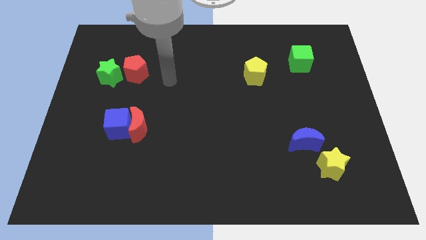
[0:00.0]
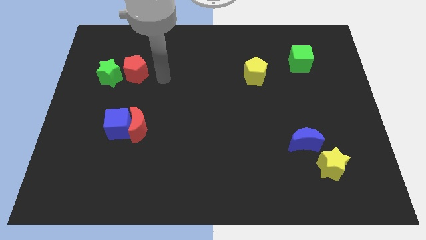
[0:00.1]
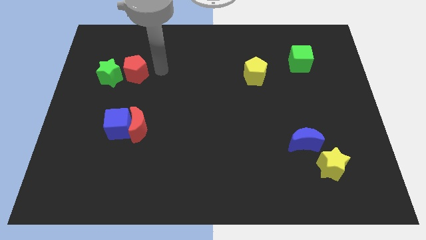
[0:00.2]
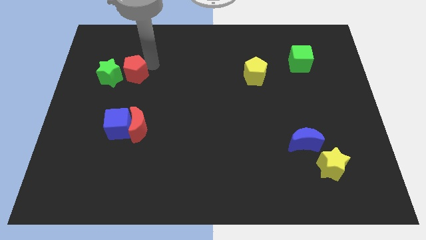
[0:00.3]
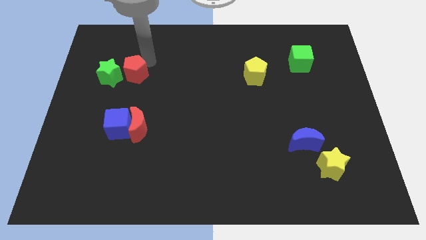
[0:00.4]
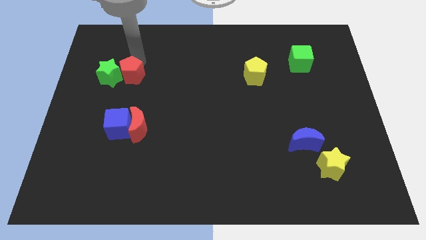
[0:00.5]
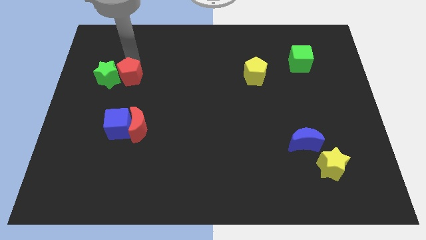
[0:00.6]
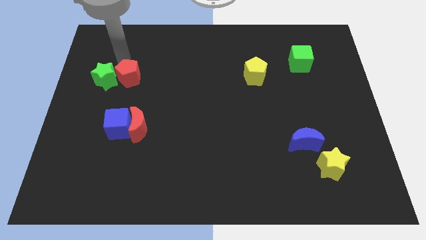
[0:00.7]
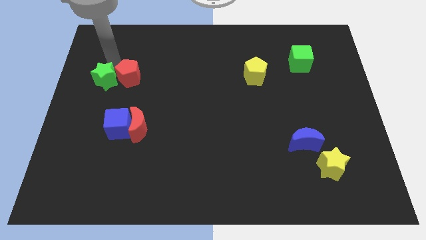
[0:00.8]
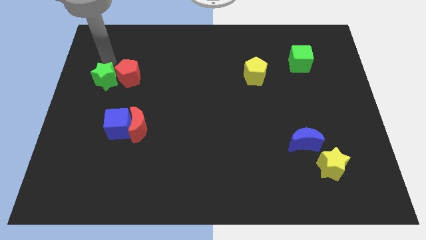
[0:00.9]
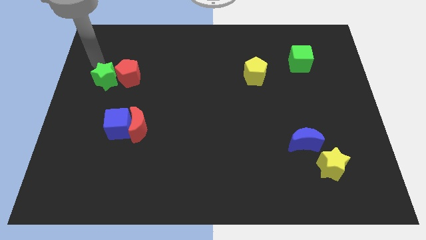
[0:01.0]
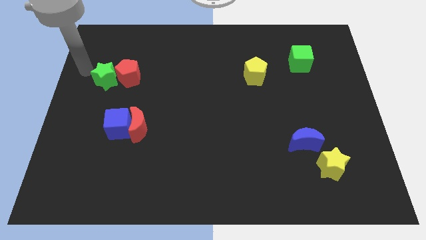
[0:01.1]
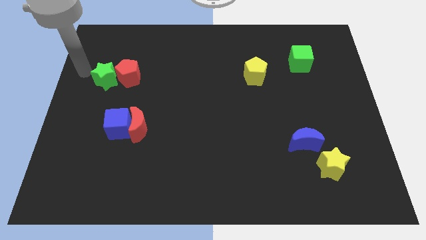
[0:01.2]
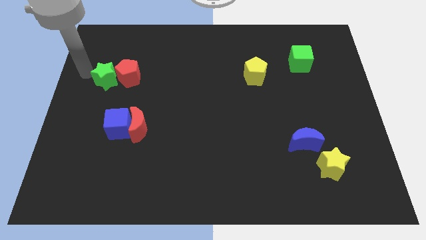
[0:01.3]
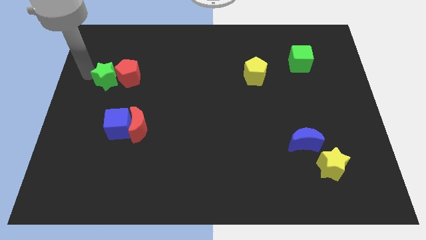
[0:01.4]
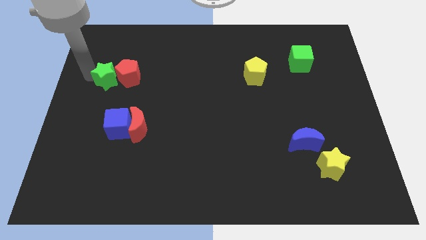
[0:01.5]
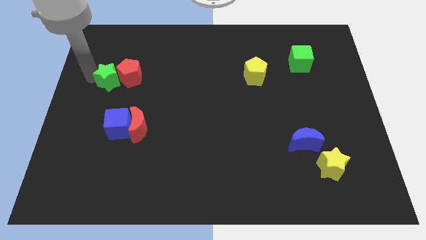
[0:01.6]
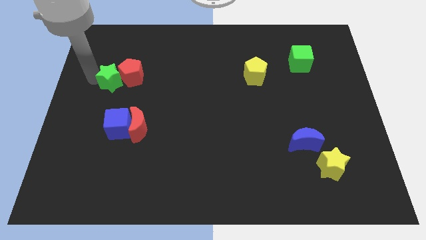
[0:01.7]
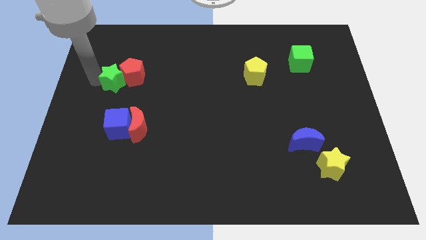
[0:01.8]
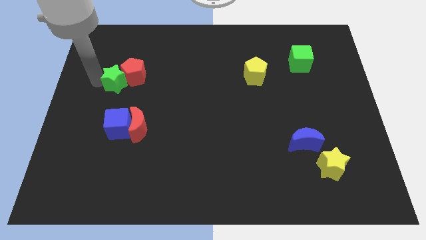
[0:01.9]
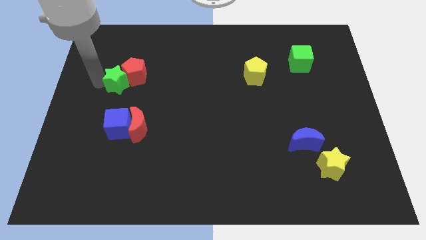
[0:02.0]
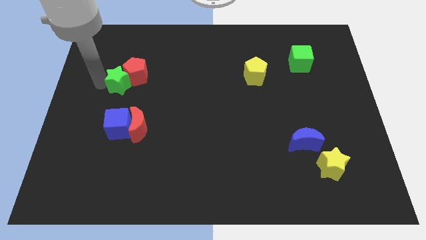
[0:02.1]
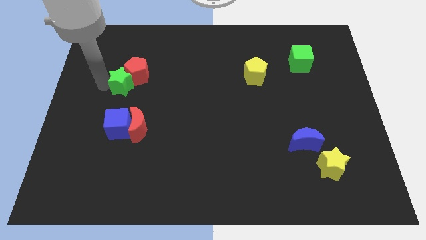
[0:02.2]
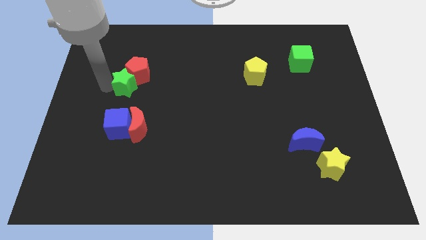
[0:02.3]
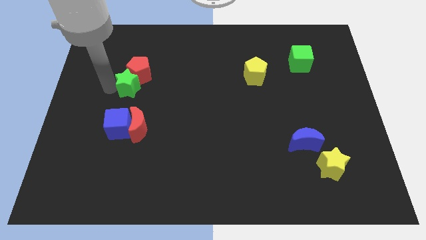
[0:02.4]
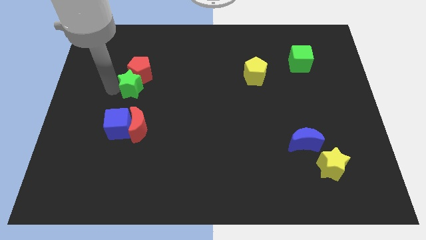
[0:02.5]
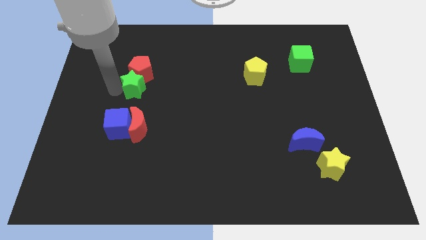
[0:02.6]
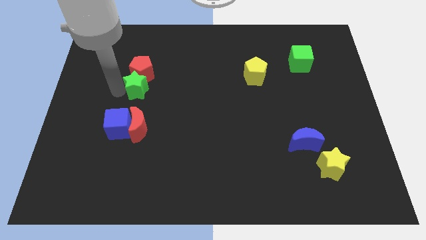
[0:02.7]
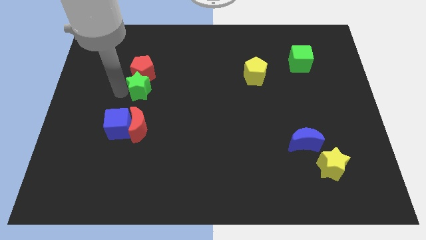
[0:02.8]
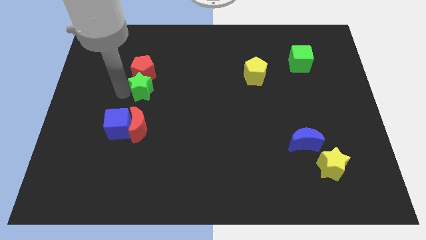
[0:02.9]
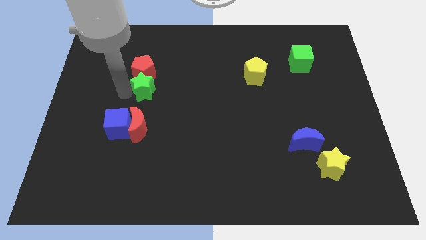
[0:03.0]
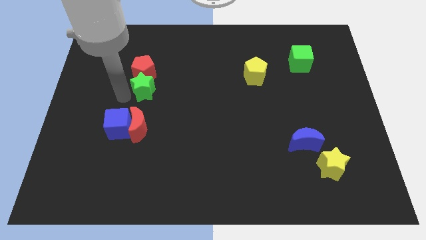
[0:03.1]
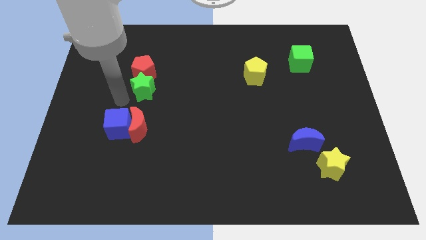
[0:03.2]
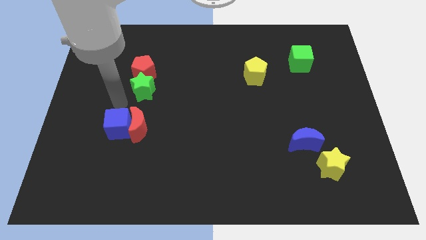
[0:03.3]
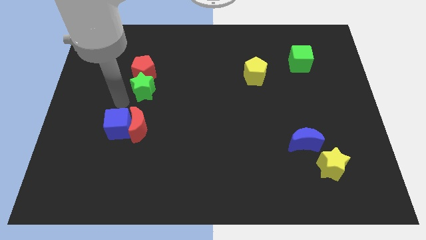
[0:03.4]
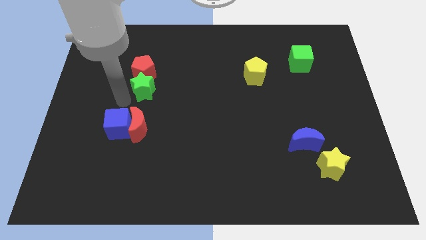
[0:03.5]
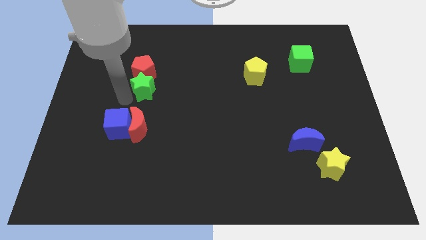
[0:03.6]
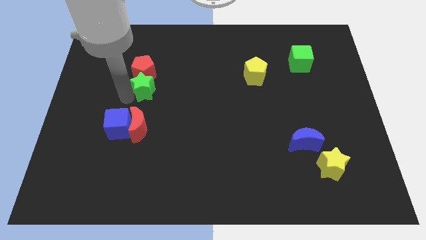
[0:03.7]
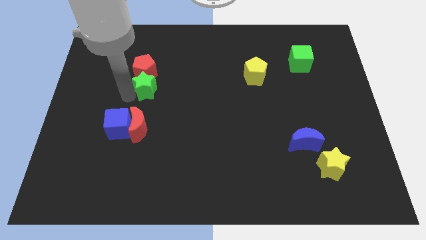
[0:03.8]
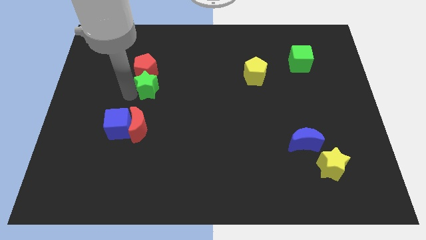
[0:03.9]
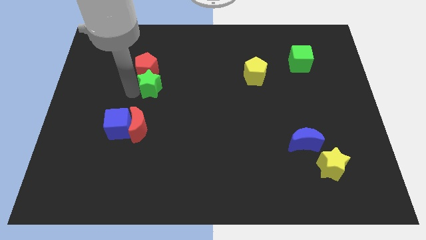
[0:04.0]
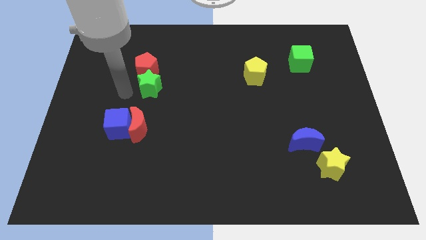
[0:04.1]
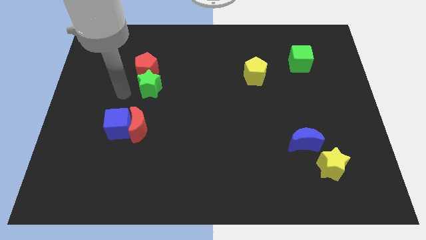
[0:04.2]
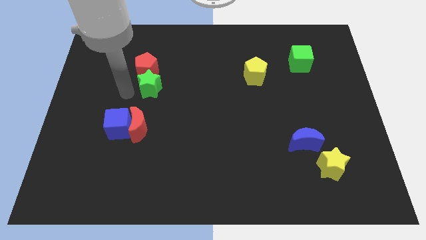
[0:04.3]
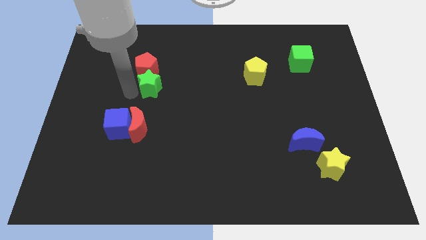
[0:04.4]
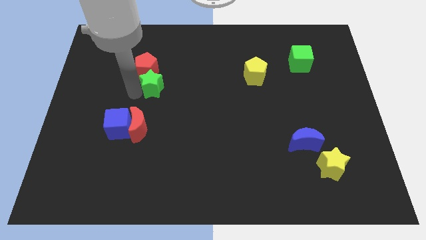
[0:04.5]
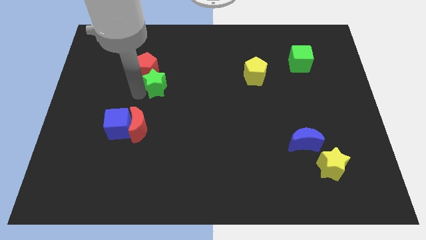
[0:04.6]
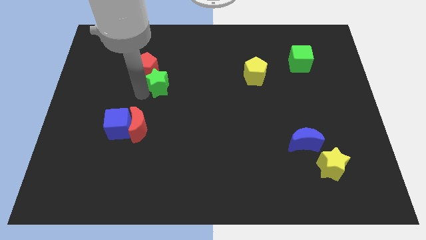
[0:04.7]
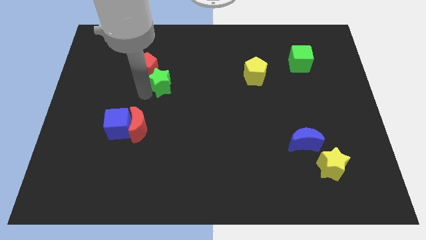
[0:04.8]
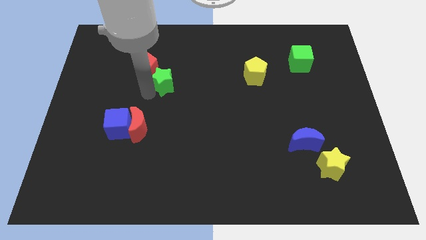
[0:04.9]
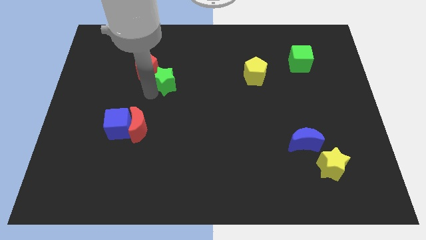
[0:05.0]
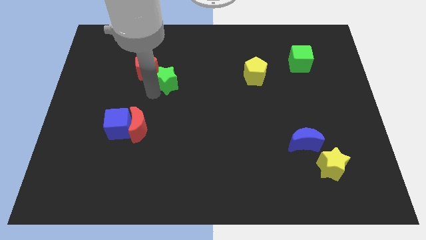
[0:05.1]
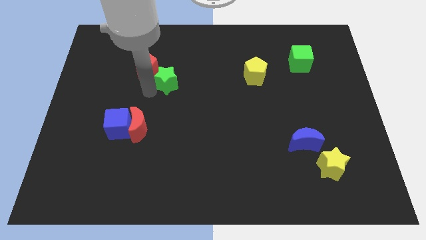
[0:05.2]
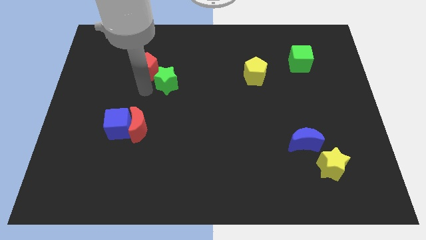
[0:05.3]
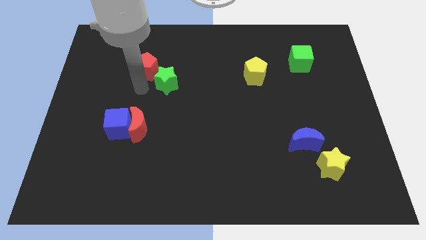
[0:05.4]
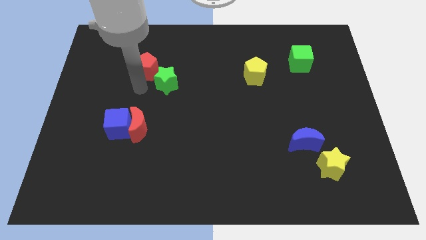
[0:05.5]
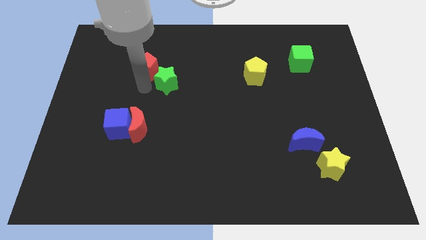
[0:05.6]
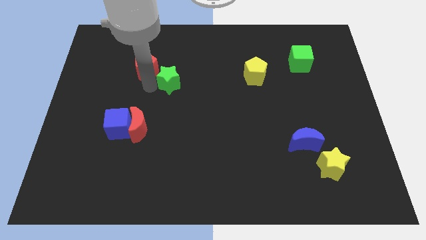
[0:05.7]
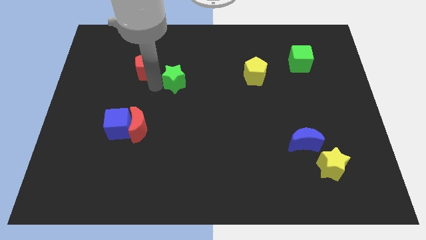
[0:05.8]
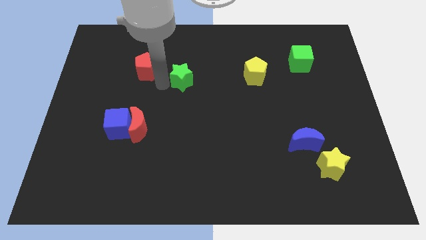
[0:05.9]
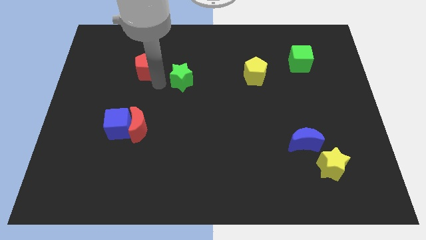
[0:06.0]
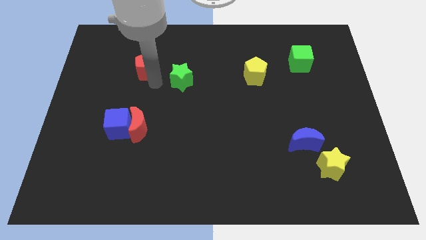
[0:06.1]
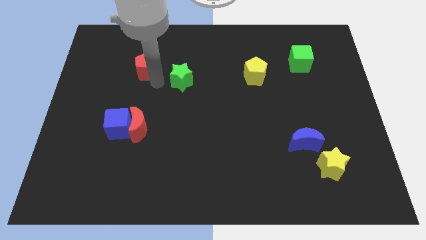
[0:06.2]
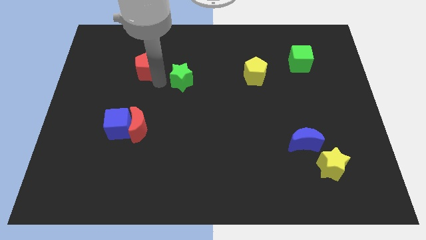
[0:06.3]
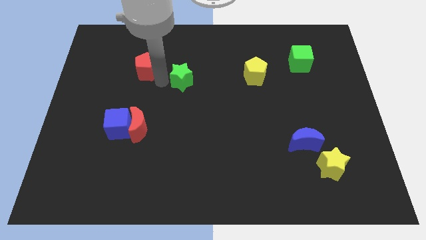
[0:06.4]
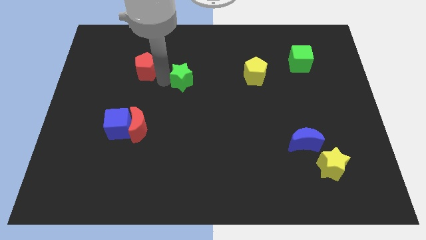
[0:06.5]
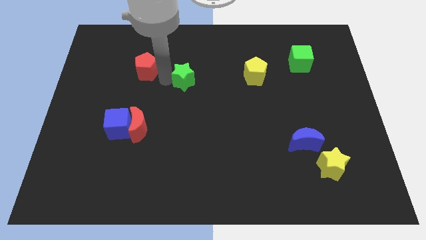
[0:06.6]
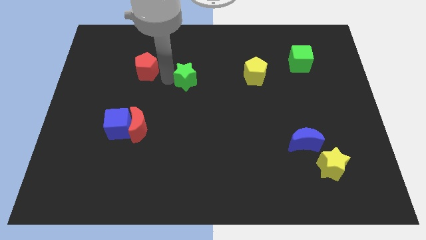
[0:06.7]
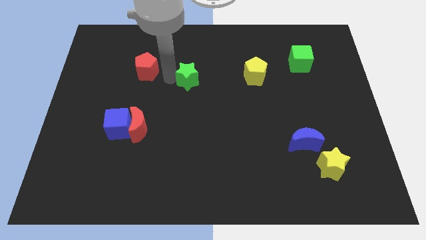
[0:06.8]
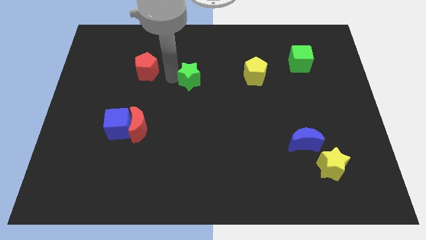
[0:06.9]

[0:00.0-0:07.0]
push the green star to the right

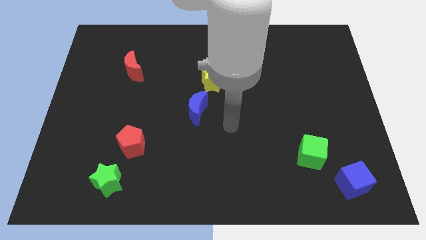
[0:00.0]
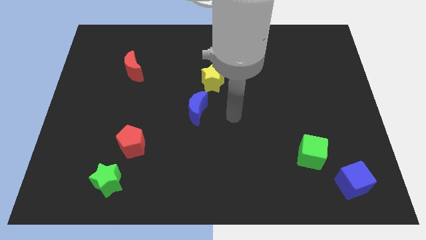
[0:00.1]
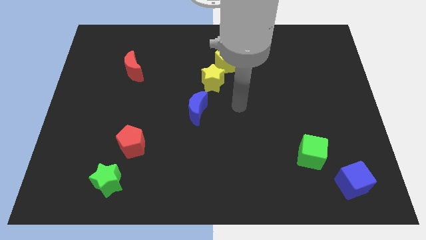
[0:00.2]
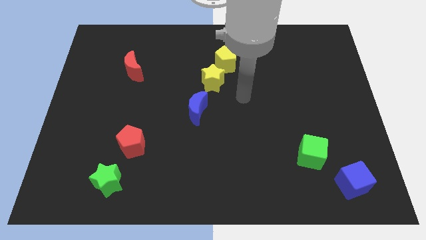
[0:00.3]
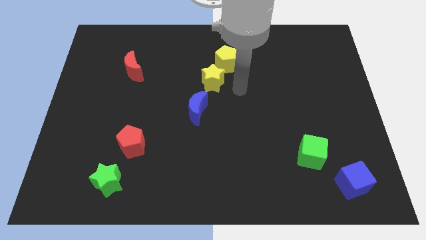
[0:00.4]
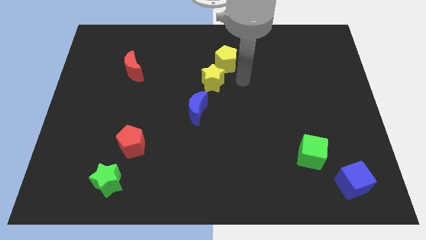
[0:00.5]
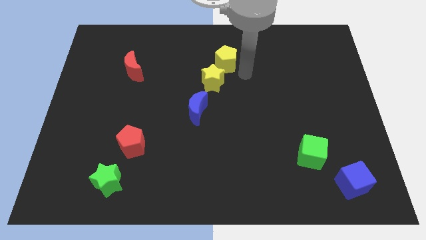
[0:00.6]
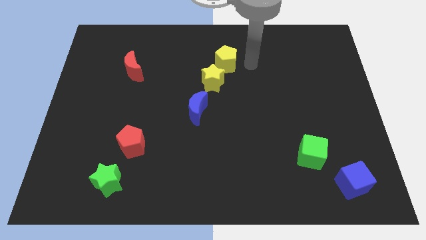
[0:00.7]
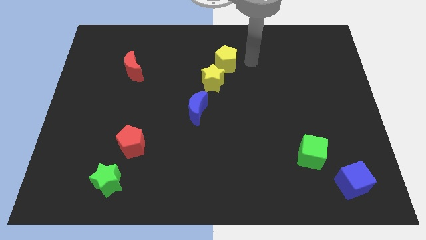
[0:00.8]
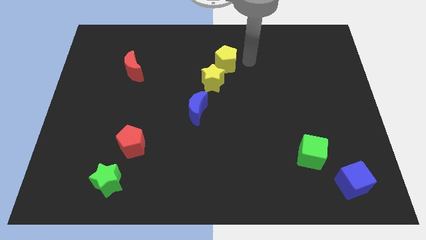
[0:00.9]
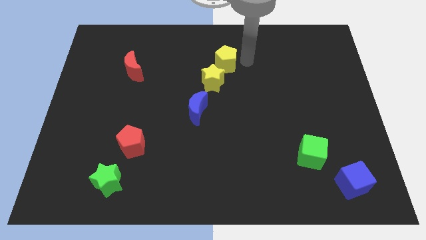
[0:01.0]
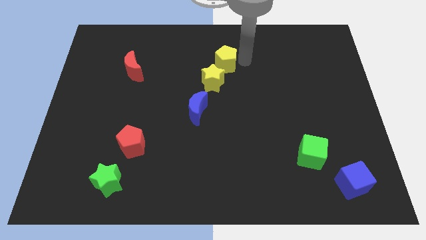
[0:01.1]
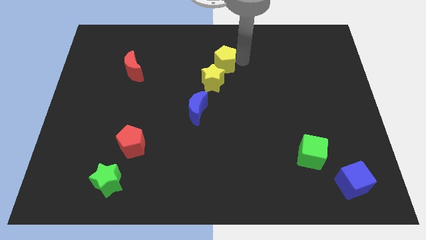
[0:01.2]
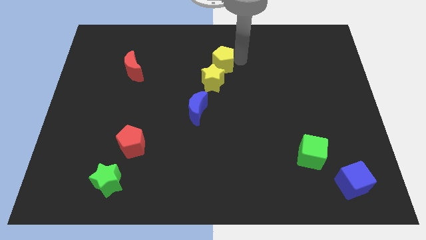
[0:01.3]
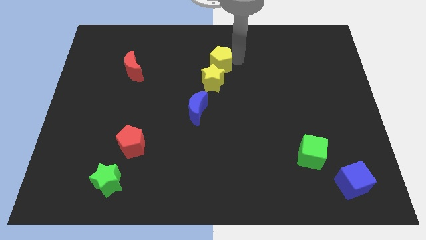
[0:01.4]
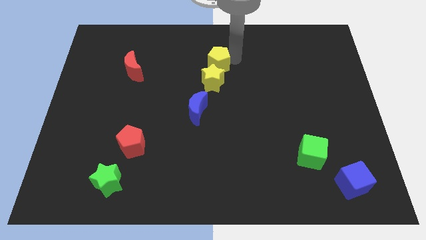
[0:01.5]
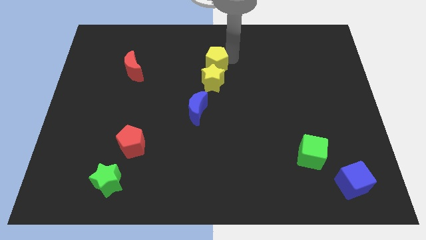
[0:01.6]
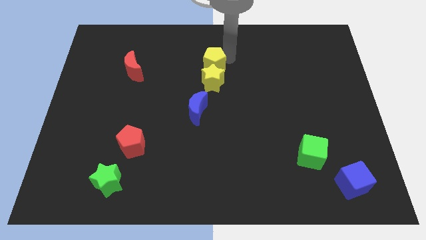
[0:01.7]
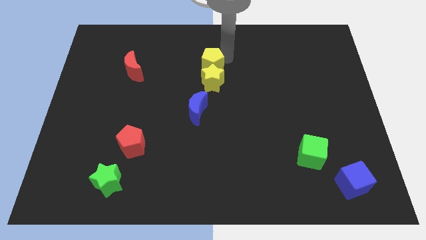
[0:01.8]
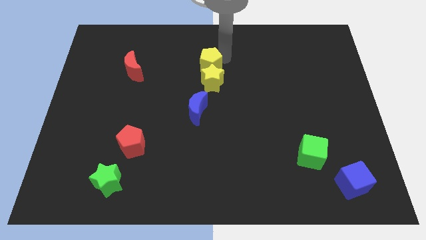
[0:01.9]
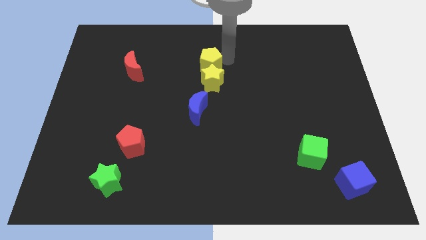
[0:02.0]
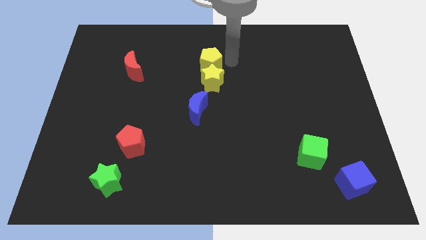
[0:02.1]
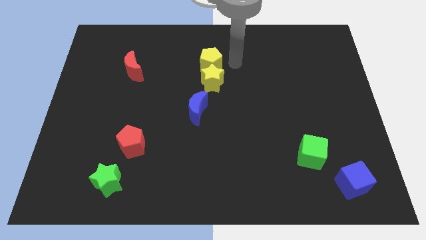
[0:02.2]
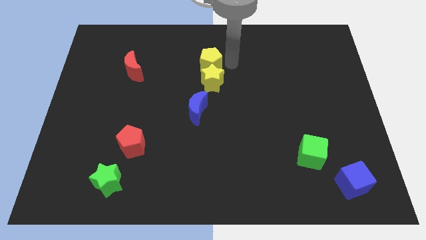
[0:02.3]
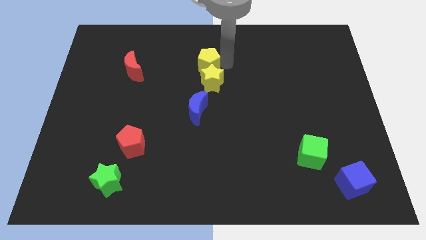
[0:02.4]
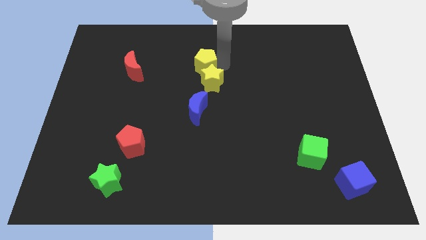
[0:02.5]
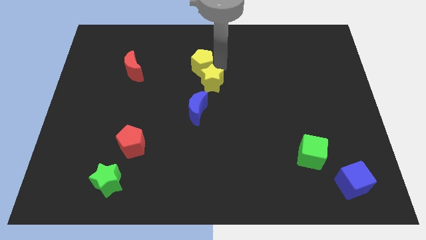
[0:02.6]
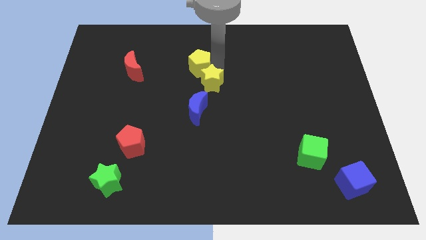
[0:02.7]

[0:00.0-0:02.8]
slide the yellow pentagon a bit to the left
